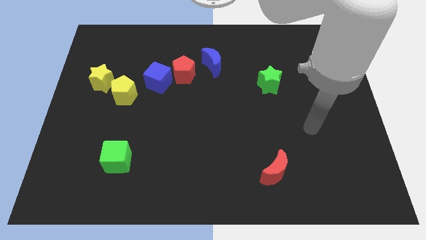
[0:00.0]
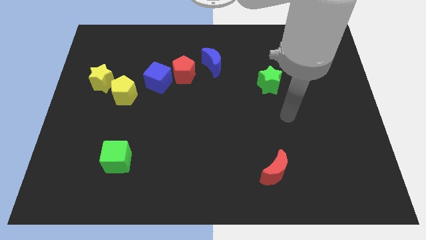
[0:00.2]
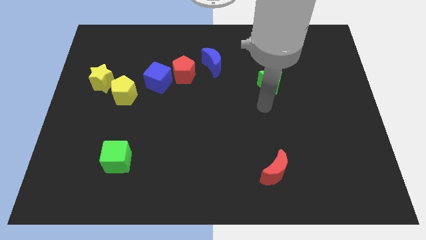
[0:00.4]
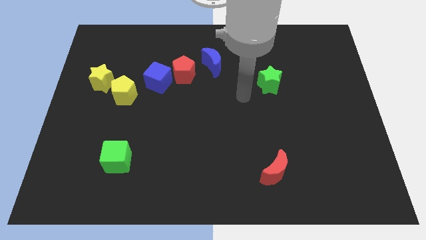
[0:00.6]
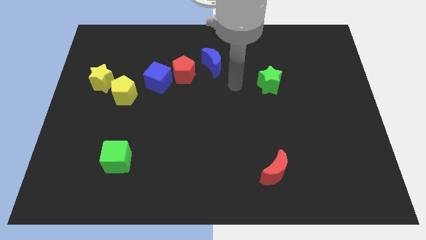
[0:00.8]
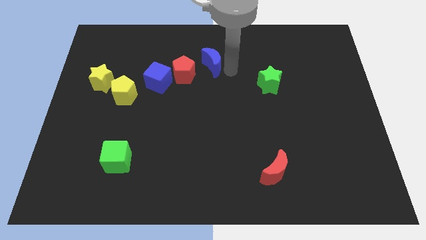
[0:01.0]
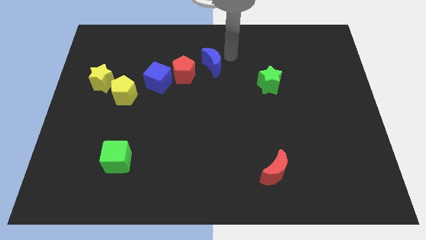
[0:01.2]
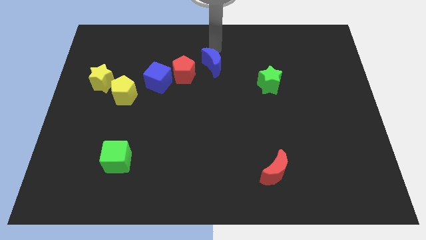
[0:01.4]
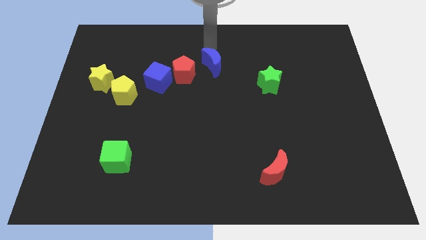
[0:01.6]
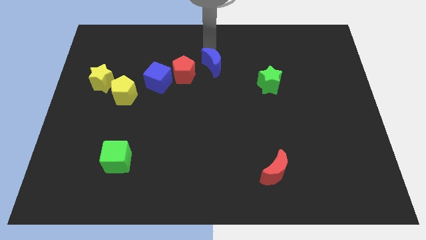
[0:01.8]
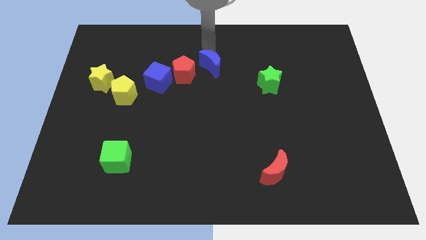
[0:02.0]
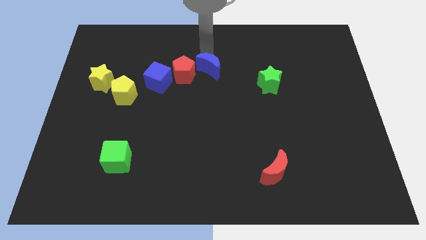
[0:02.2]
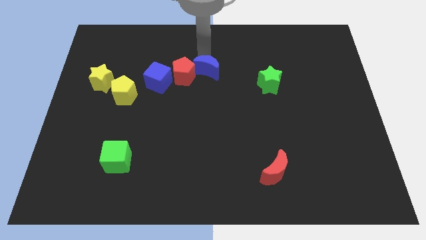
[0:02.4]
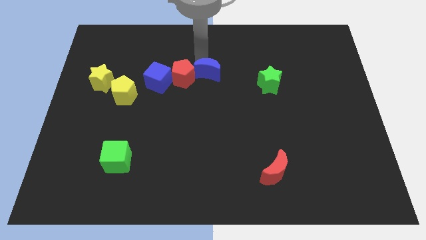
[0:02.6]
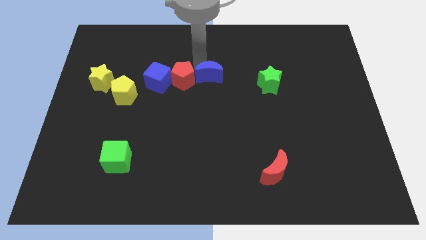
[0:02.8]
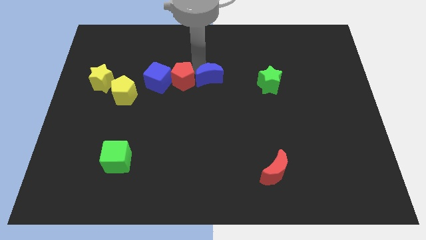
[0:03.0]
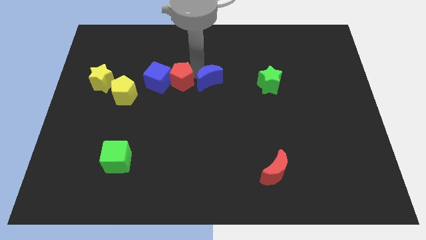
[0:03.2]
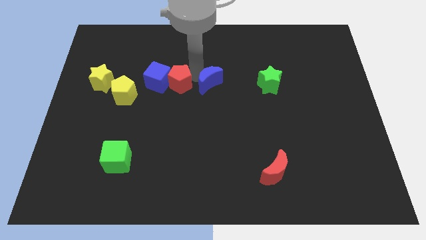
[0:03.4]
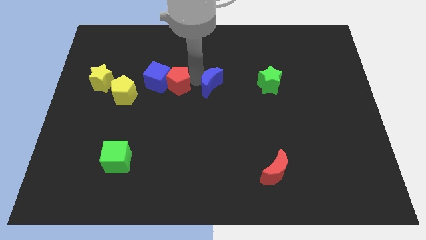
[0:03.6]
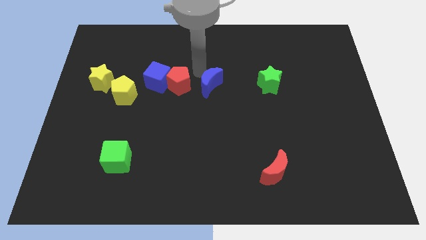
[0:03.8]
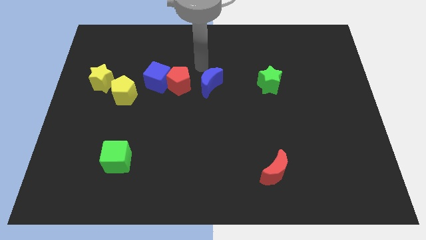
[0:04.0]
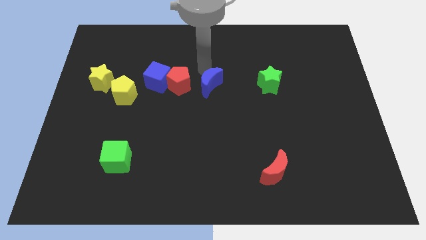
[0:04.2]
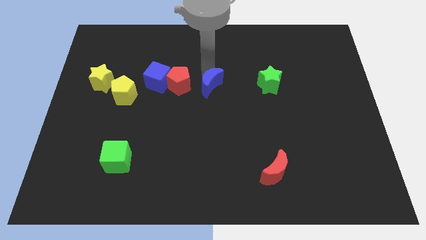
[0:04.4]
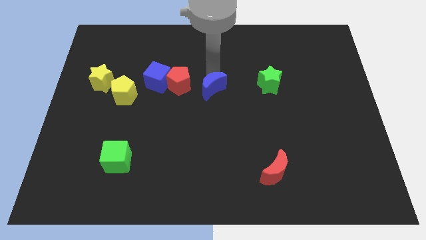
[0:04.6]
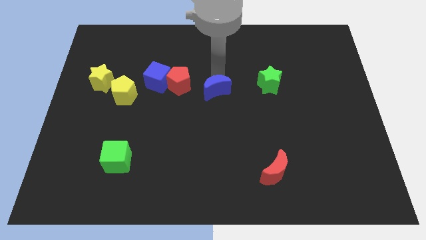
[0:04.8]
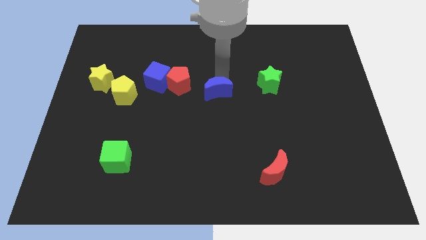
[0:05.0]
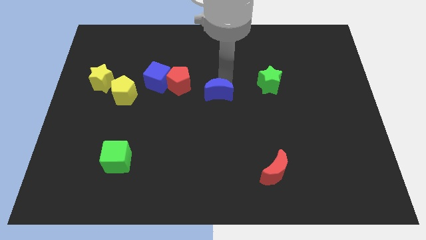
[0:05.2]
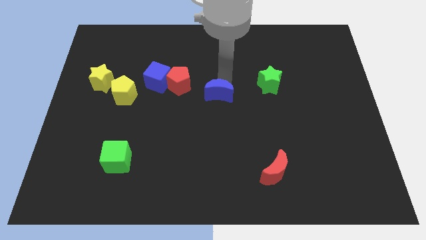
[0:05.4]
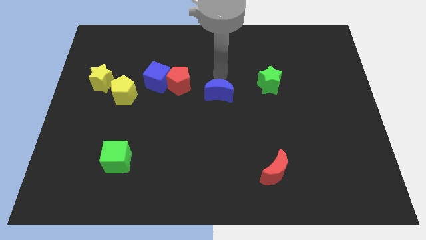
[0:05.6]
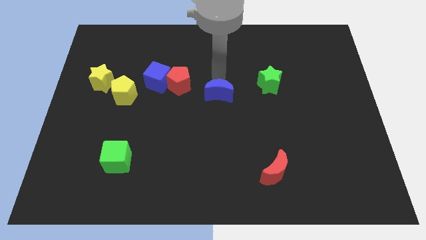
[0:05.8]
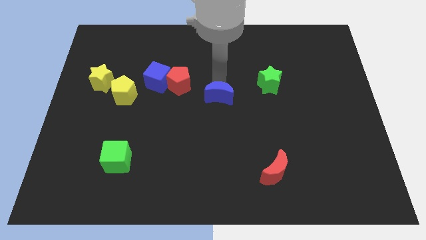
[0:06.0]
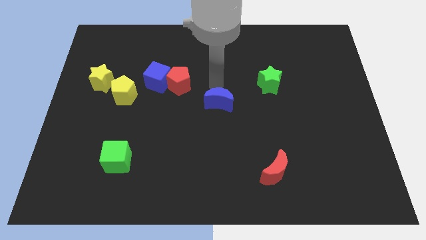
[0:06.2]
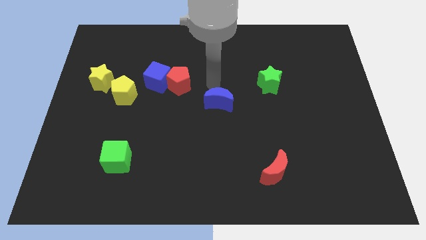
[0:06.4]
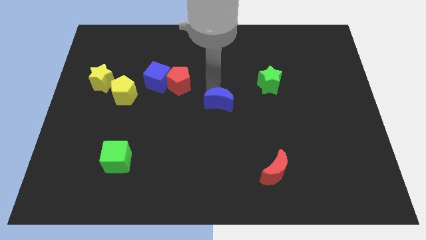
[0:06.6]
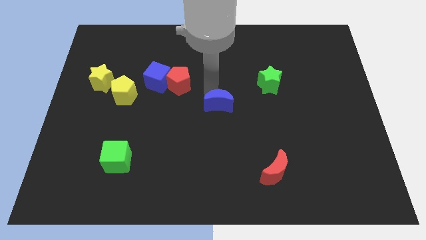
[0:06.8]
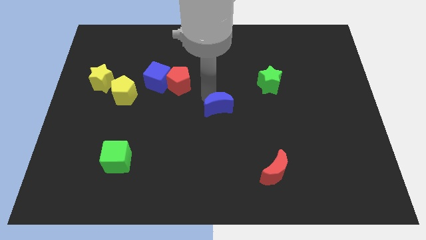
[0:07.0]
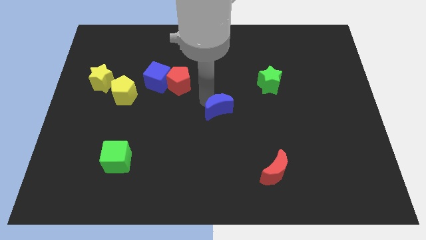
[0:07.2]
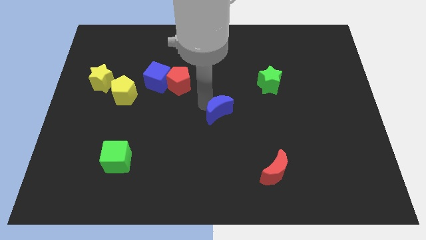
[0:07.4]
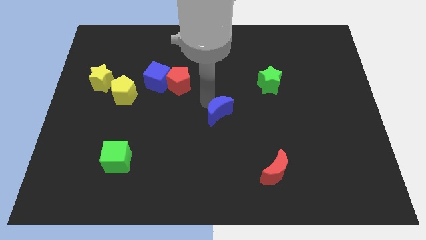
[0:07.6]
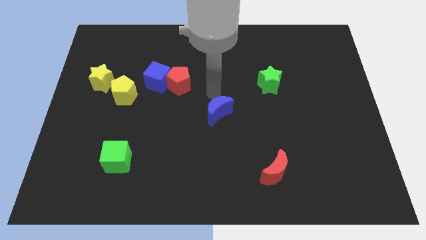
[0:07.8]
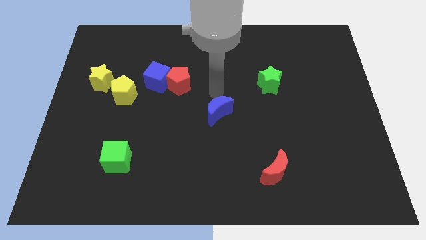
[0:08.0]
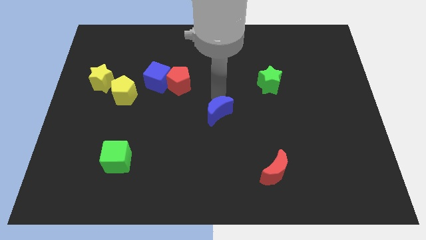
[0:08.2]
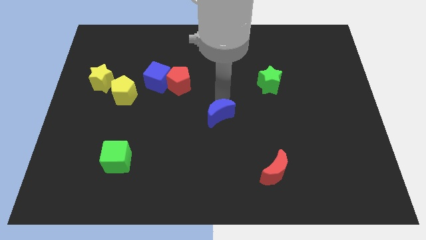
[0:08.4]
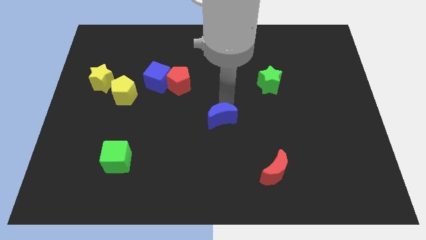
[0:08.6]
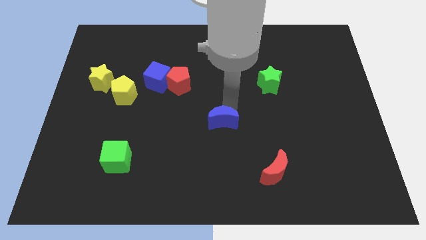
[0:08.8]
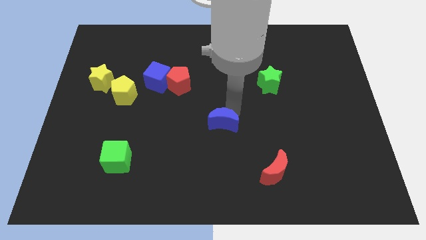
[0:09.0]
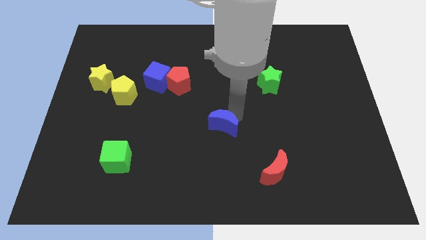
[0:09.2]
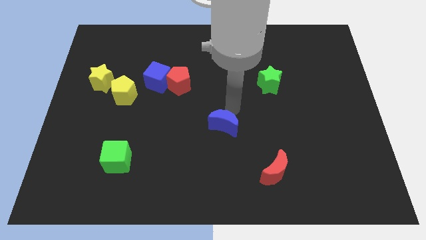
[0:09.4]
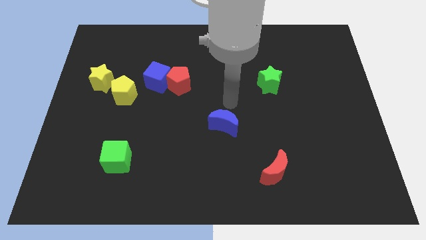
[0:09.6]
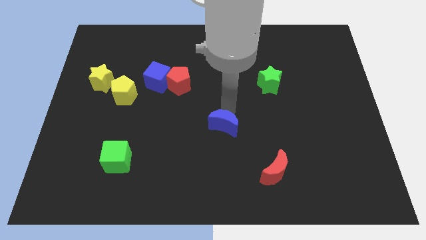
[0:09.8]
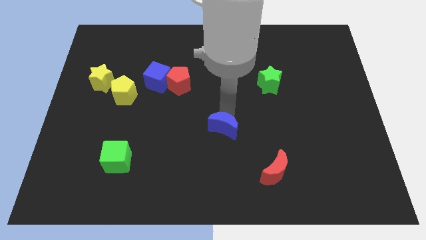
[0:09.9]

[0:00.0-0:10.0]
slide the blue moon downwards

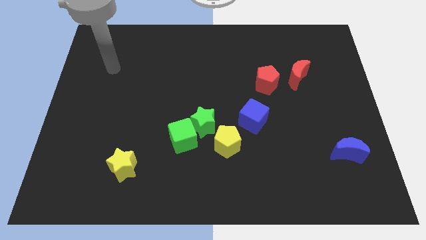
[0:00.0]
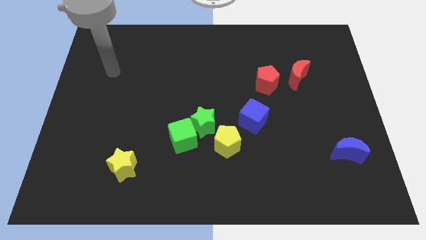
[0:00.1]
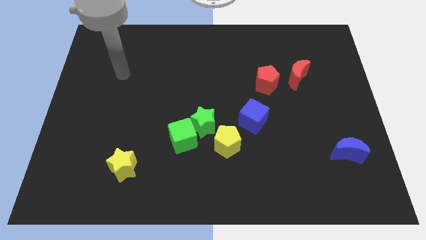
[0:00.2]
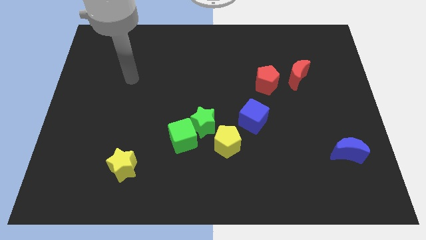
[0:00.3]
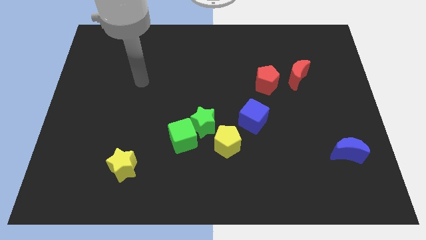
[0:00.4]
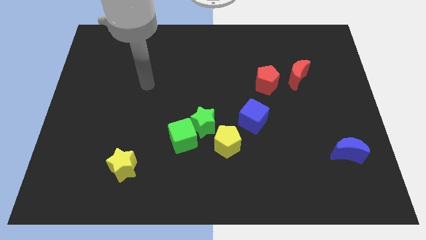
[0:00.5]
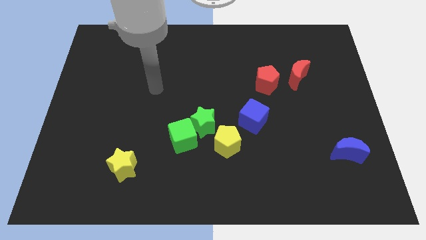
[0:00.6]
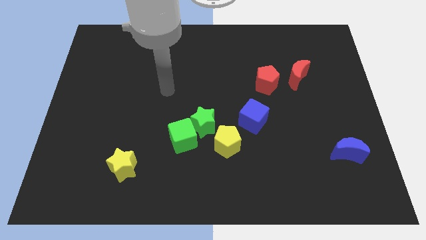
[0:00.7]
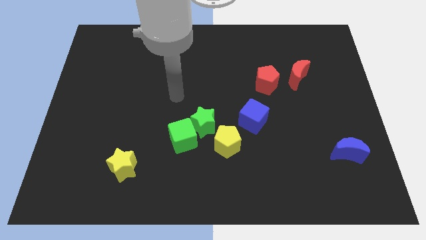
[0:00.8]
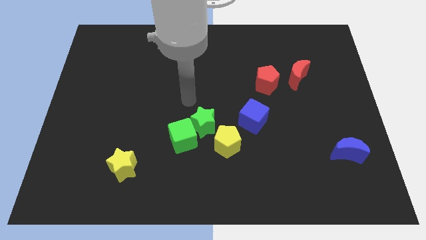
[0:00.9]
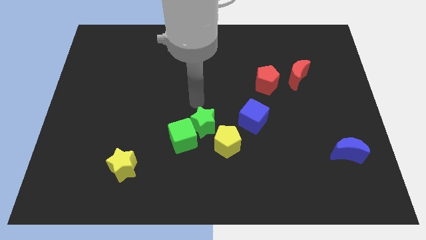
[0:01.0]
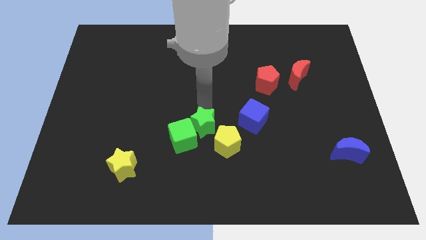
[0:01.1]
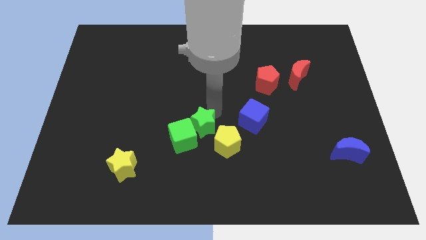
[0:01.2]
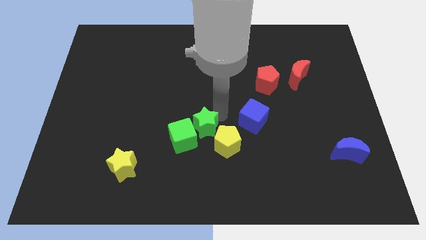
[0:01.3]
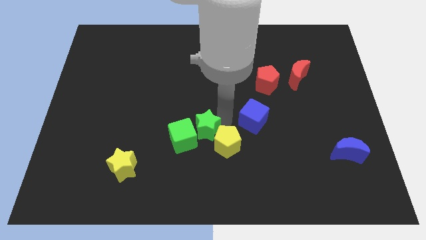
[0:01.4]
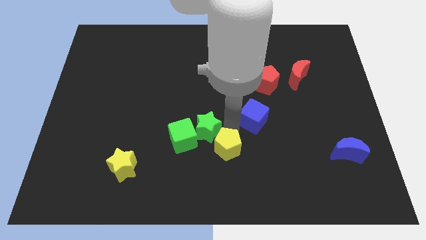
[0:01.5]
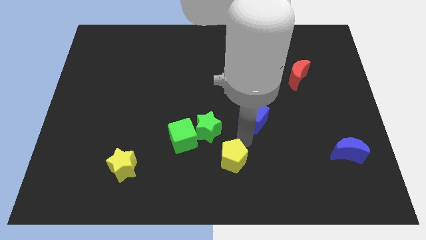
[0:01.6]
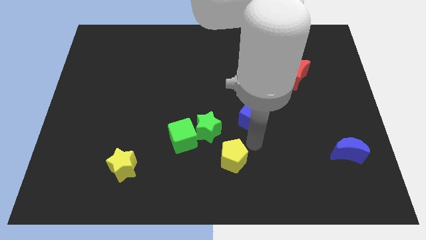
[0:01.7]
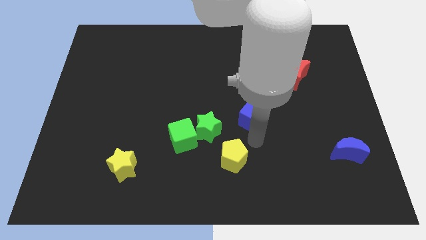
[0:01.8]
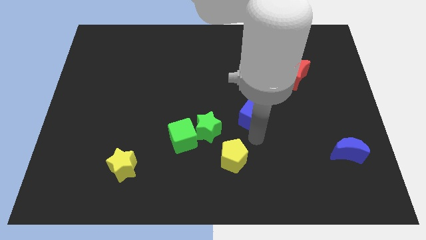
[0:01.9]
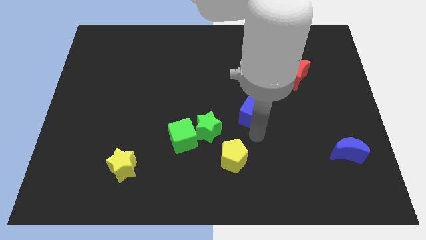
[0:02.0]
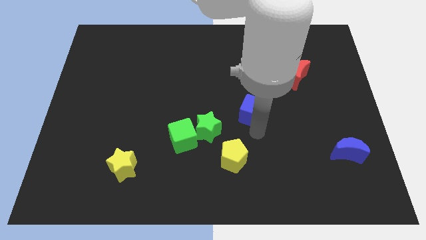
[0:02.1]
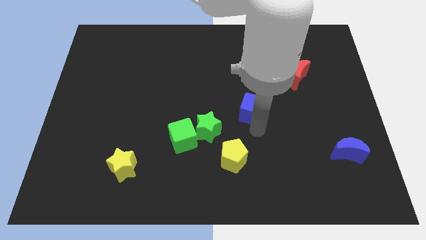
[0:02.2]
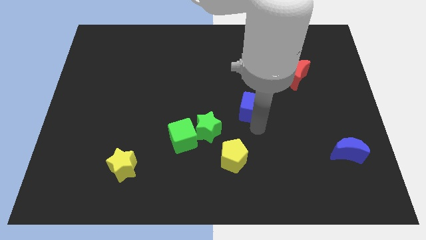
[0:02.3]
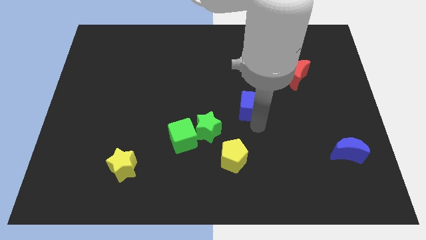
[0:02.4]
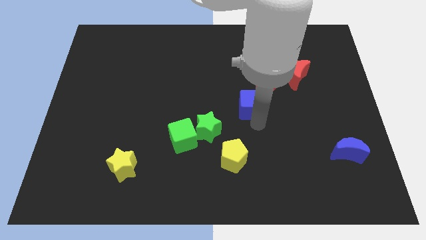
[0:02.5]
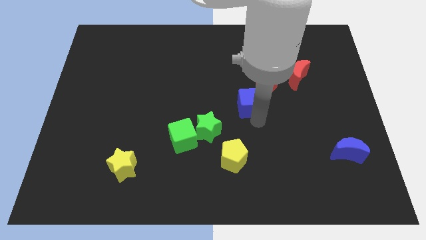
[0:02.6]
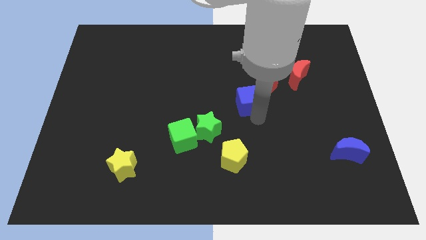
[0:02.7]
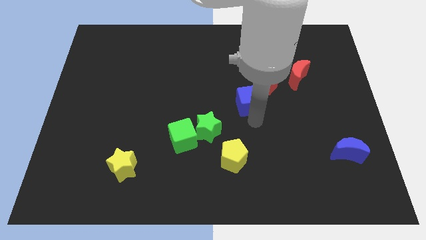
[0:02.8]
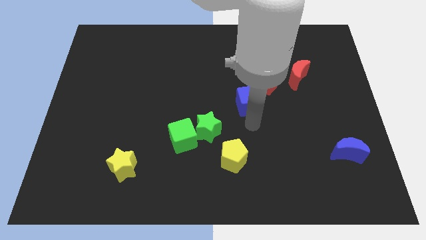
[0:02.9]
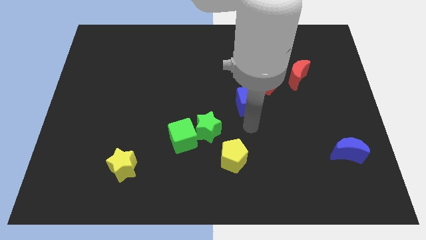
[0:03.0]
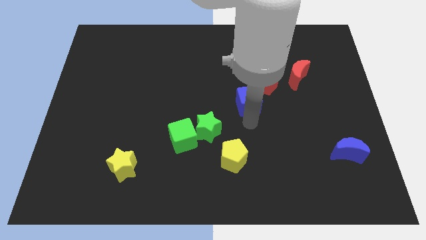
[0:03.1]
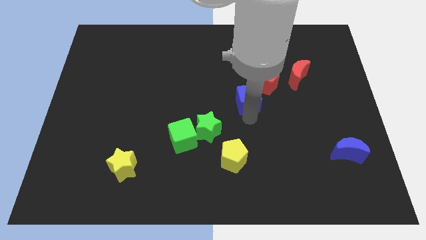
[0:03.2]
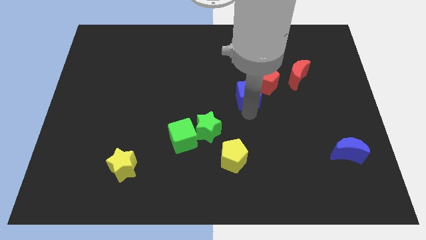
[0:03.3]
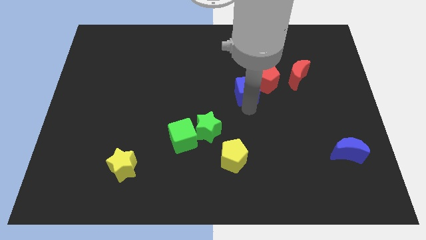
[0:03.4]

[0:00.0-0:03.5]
move the blue cube upwards a little bit
